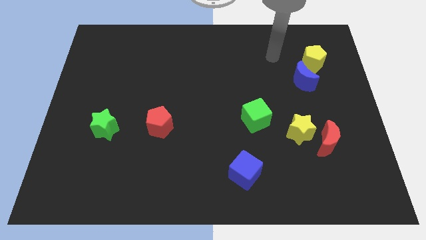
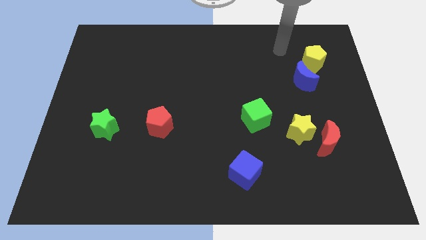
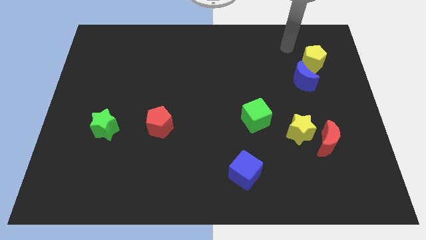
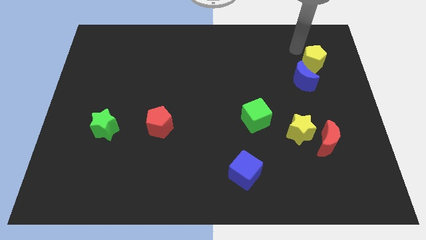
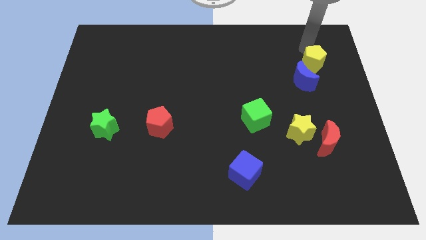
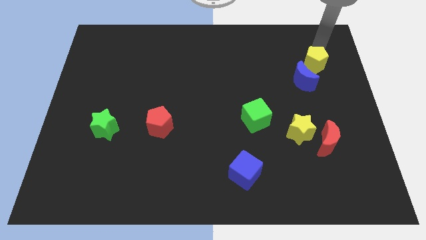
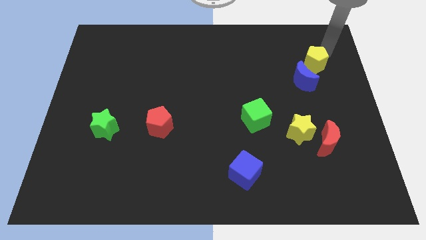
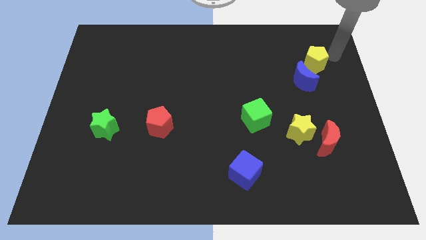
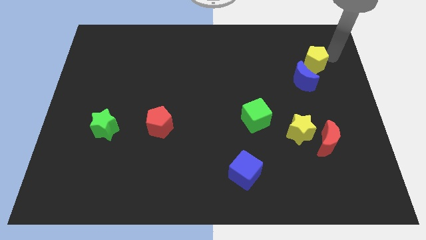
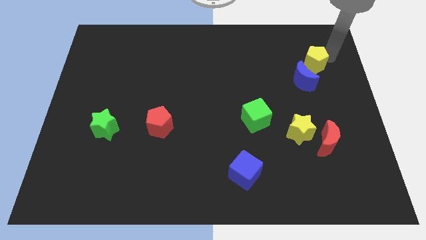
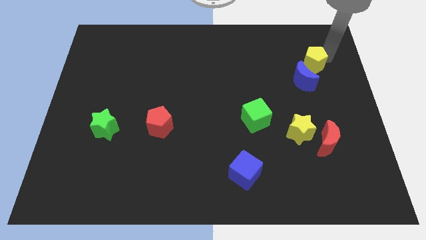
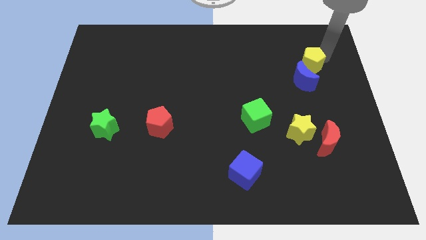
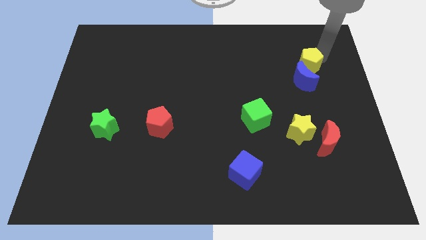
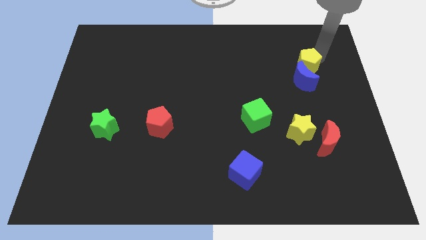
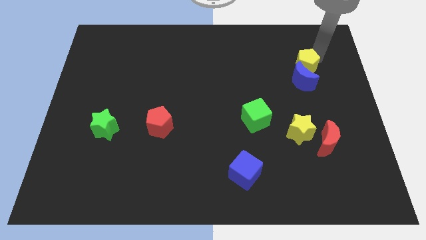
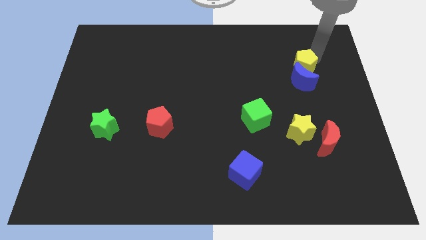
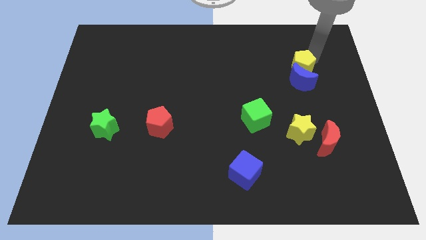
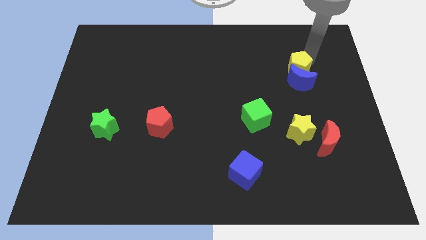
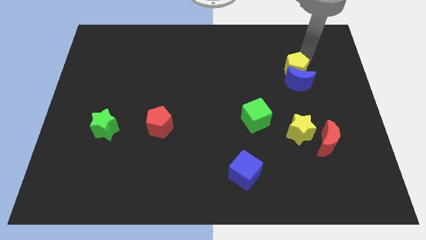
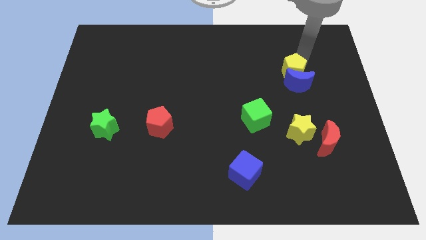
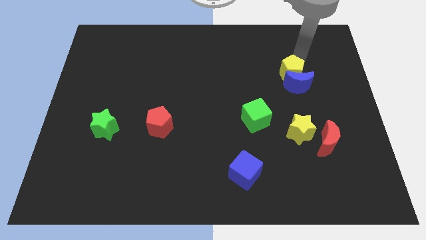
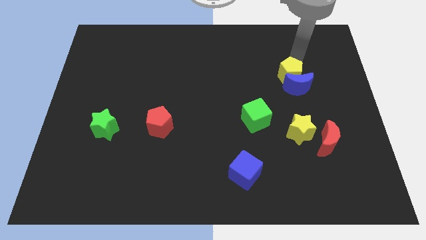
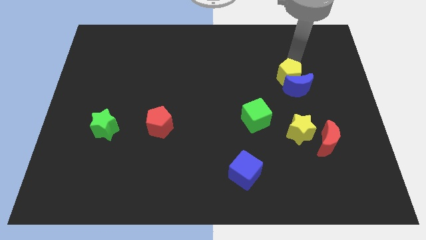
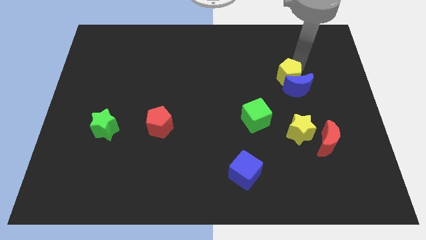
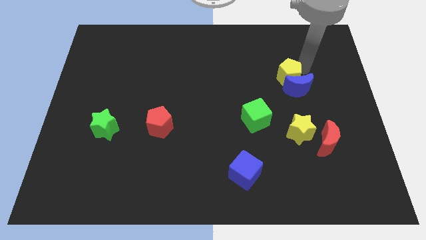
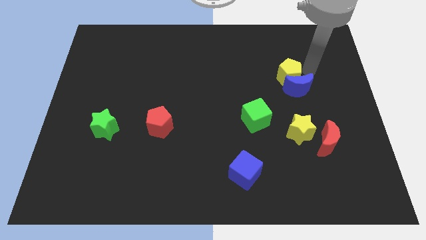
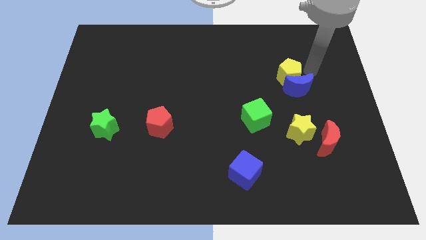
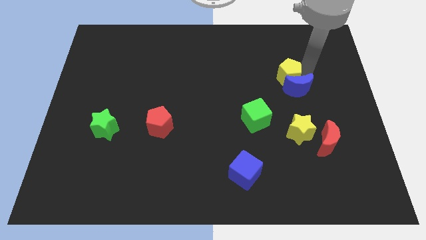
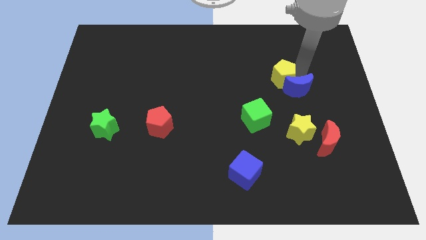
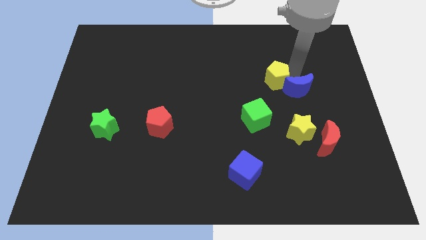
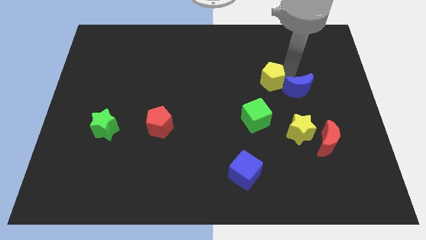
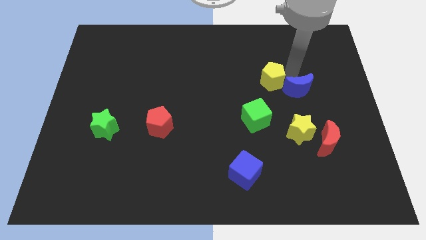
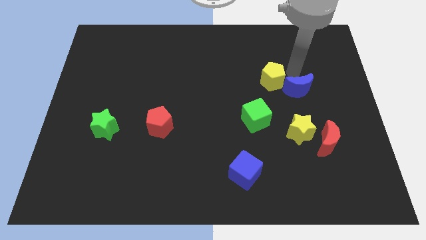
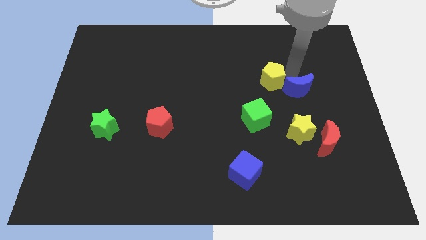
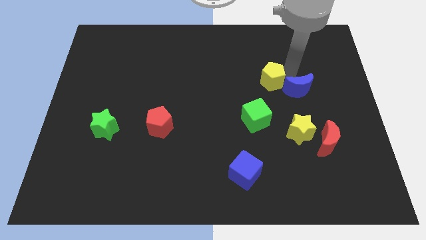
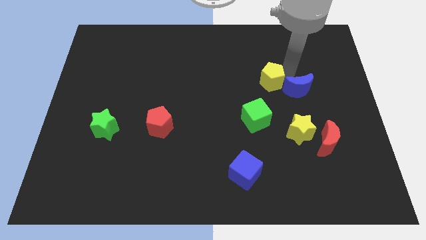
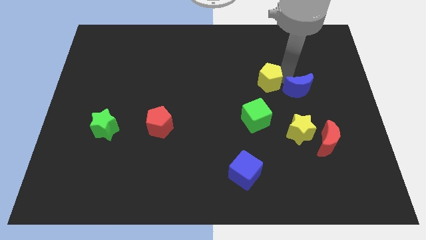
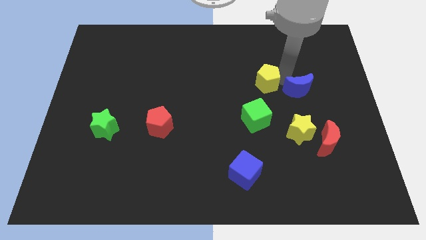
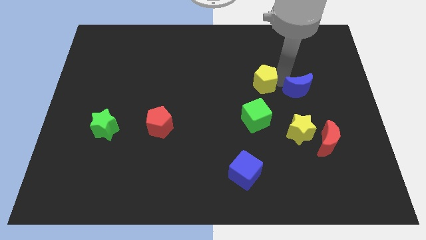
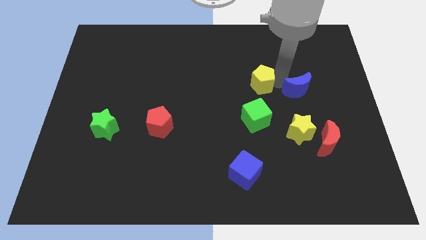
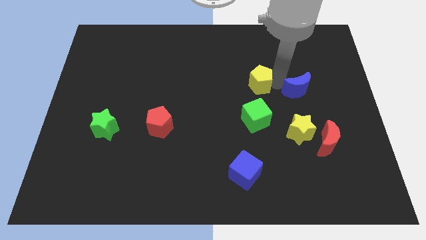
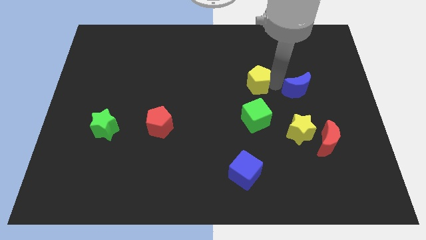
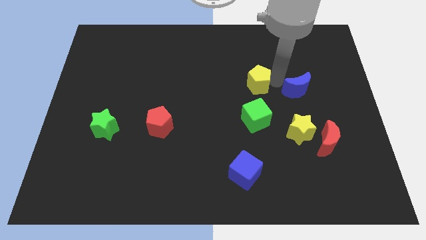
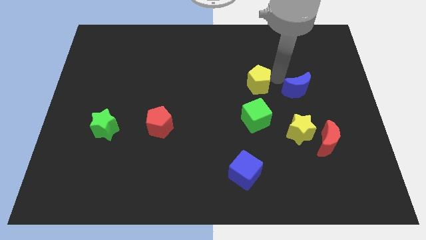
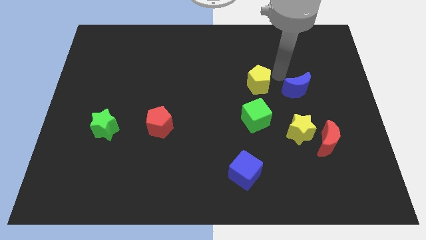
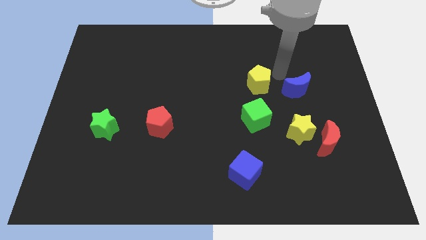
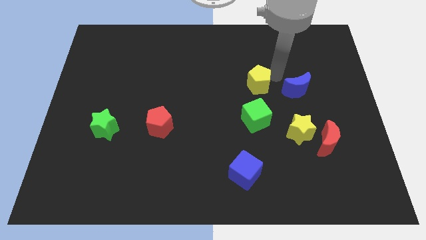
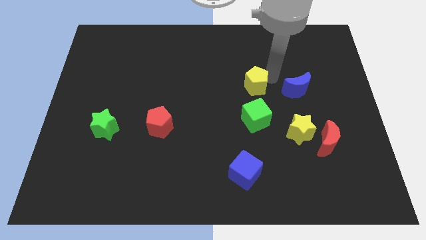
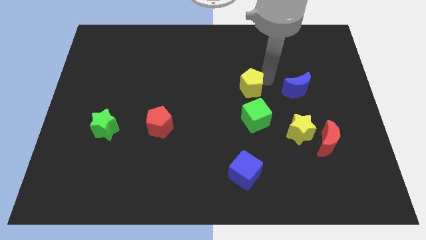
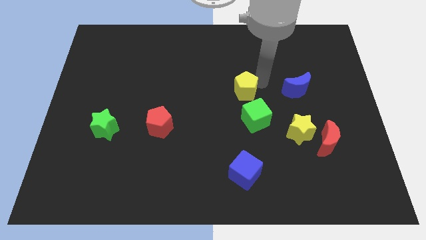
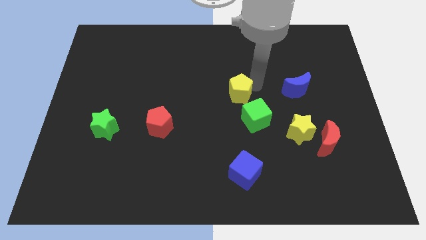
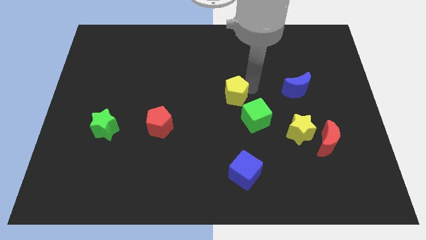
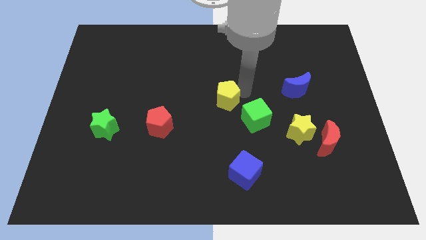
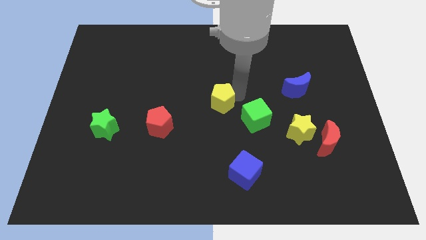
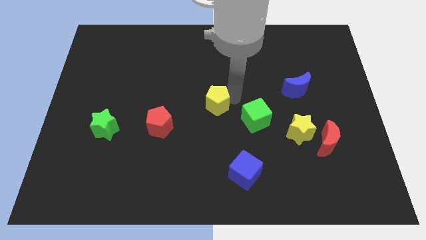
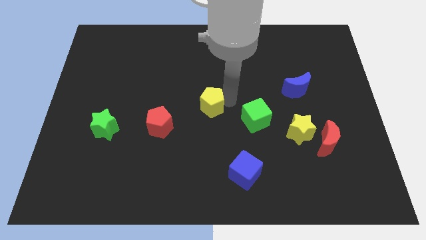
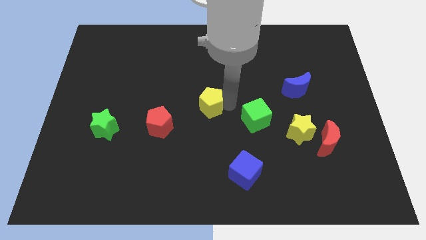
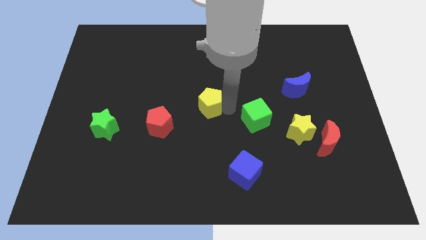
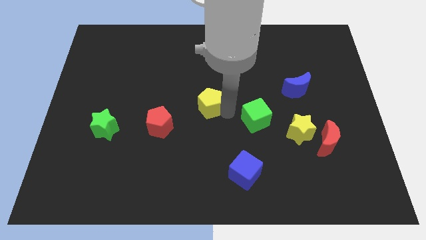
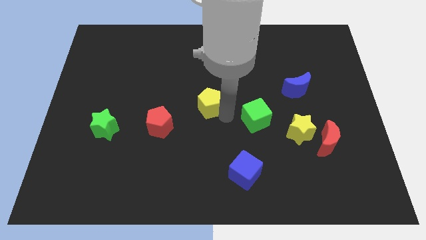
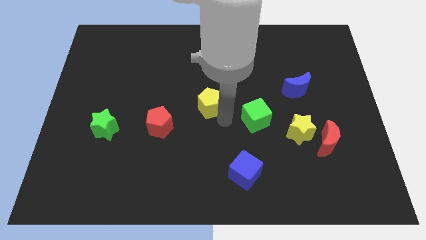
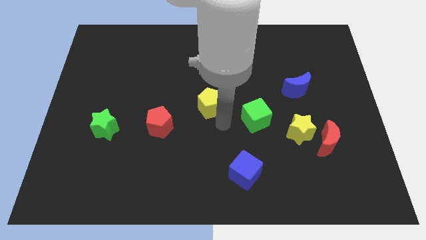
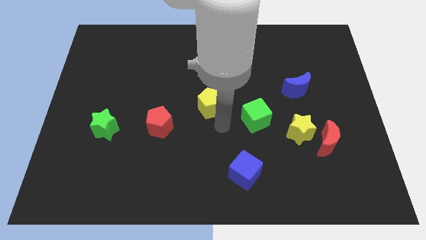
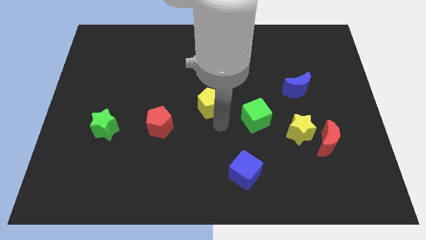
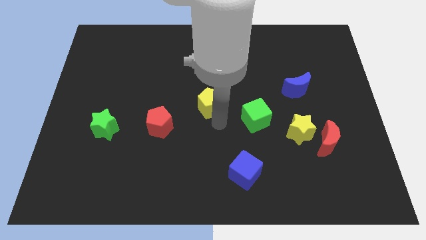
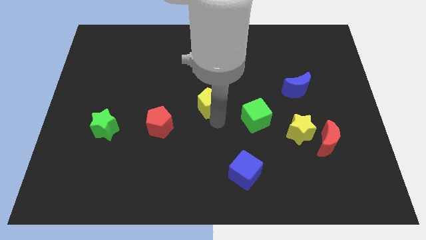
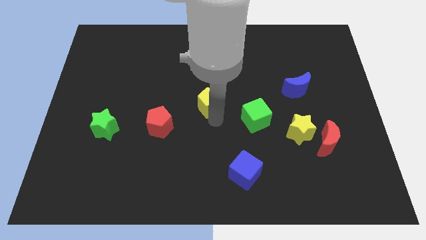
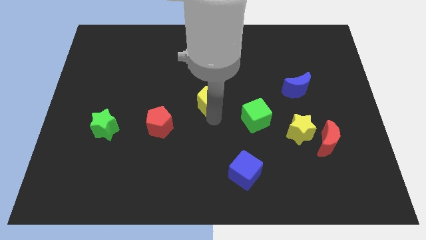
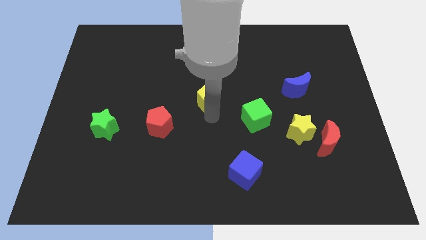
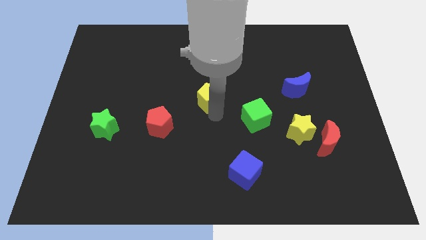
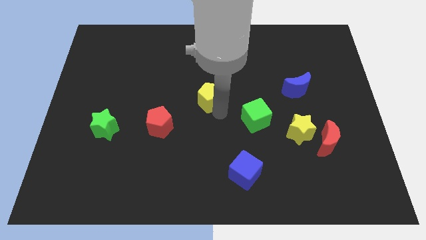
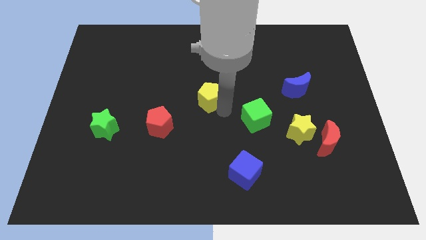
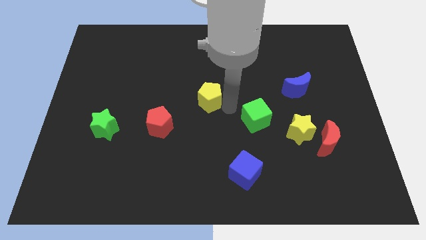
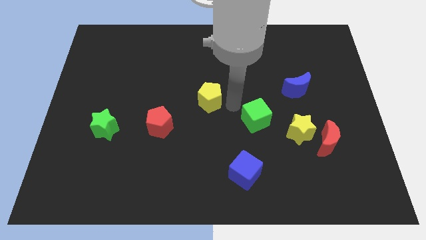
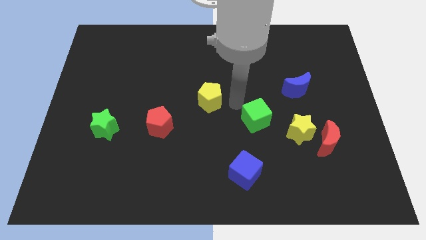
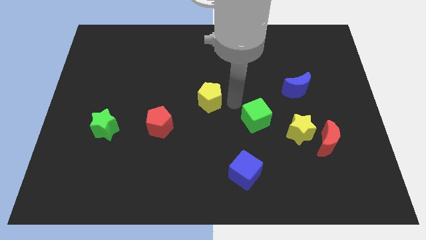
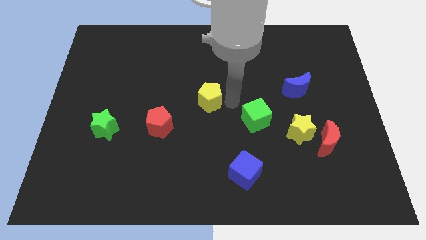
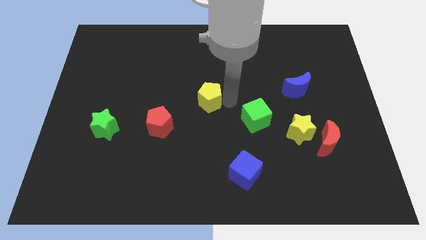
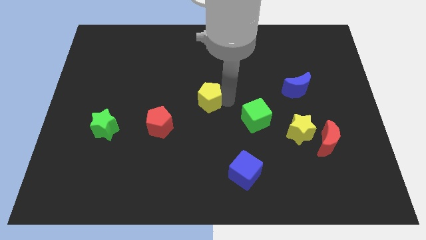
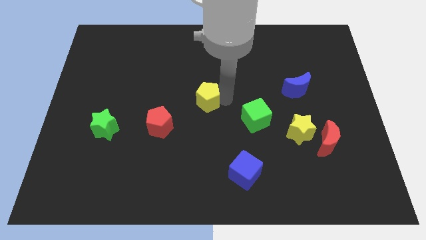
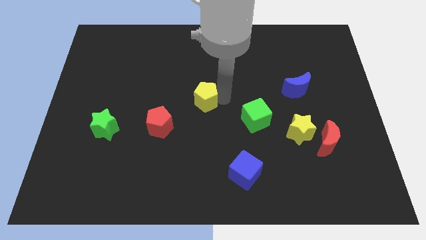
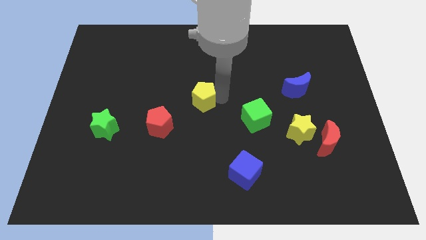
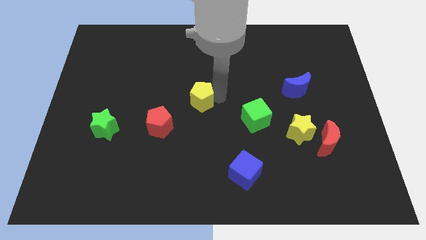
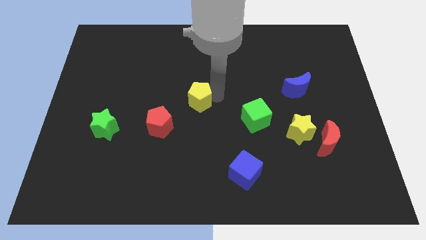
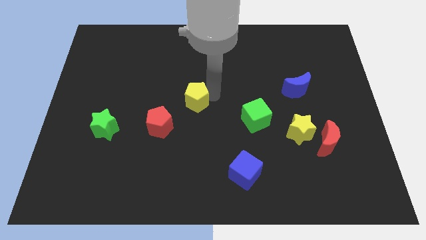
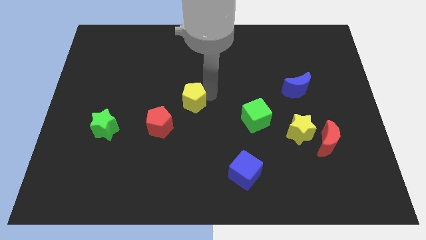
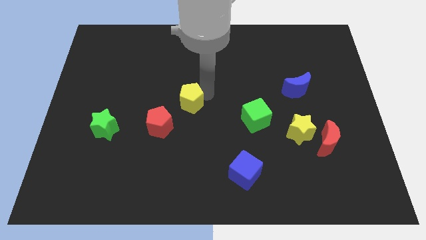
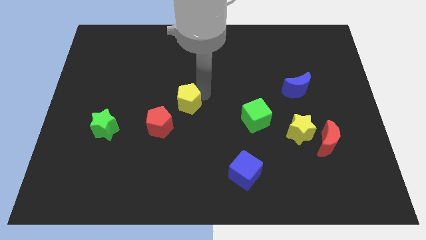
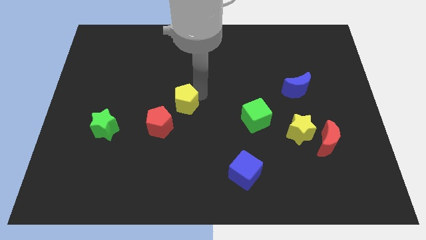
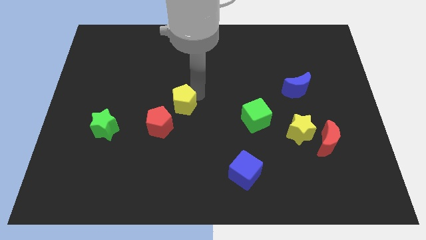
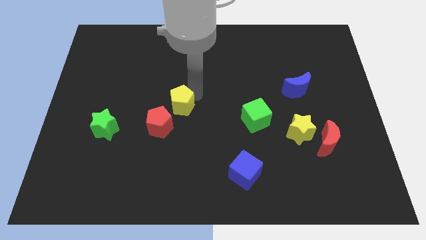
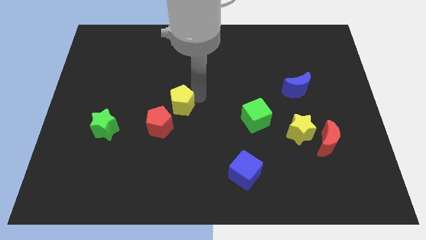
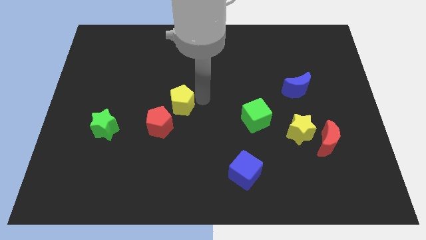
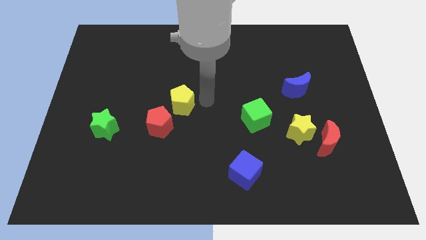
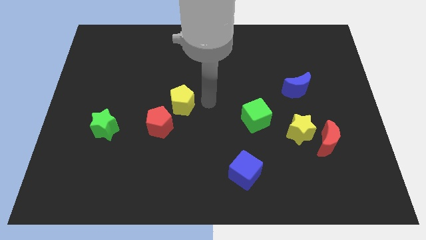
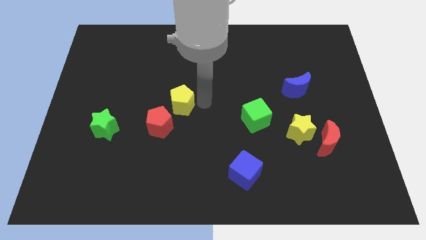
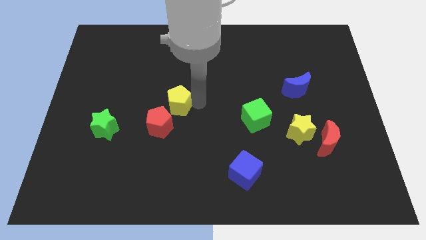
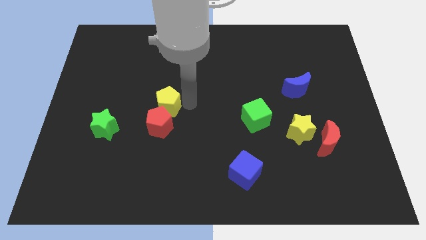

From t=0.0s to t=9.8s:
put the yellow pentagon diagonally up and to the left of the red pentagon
